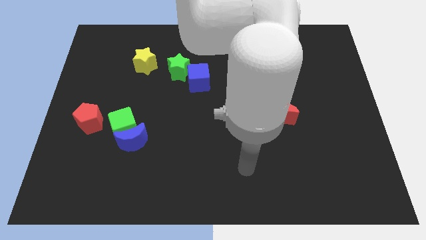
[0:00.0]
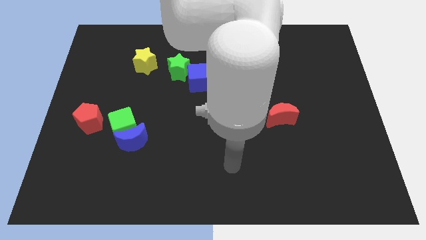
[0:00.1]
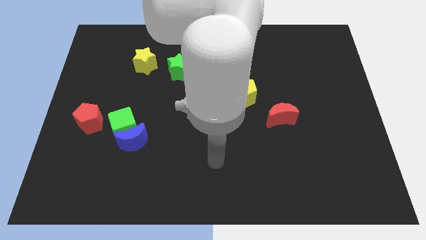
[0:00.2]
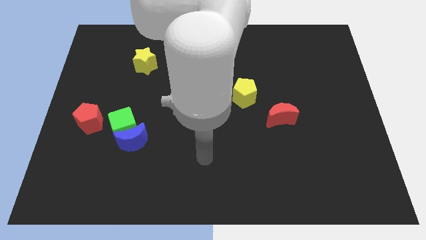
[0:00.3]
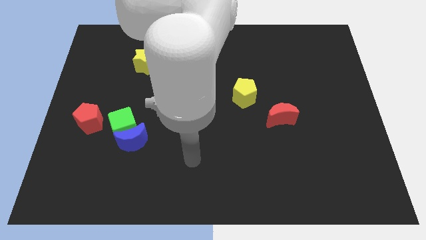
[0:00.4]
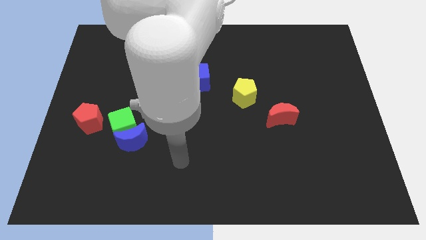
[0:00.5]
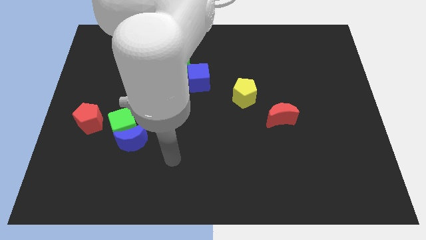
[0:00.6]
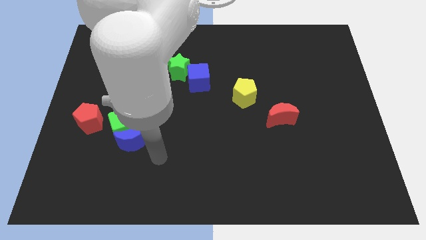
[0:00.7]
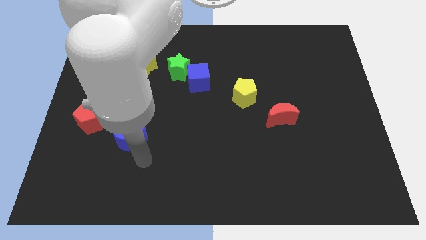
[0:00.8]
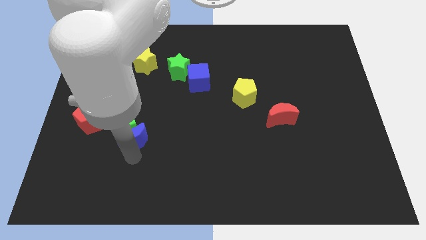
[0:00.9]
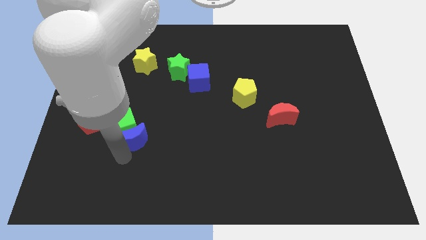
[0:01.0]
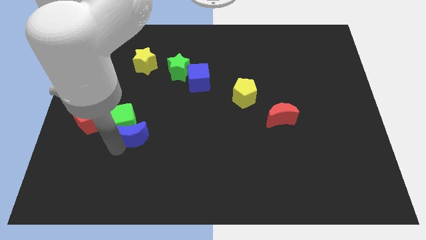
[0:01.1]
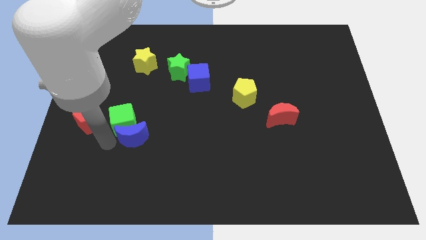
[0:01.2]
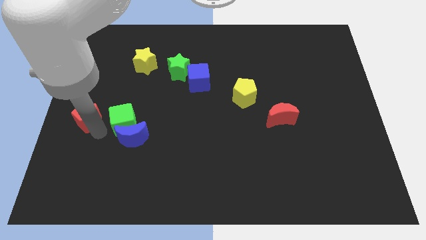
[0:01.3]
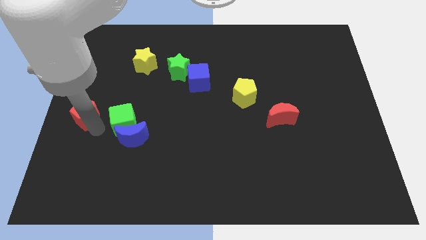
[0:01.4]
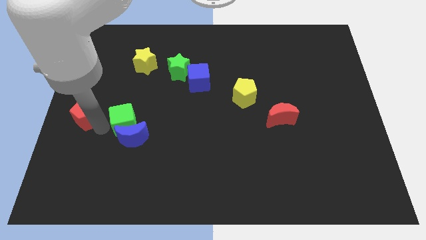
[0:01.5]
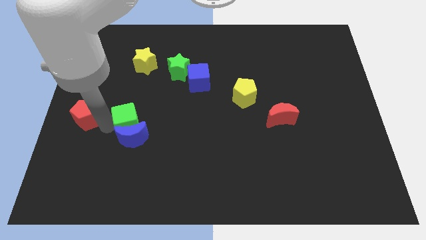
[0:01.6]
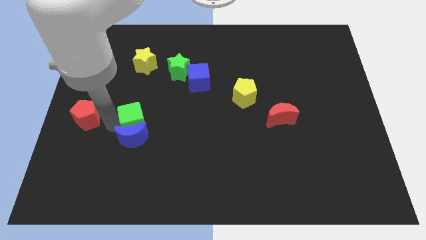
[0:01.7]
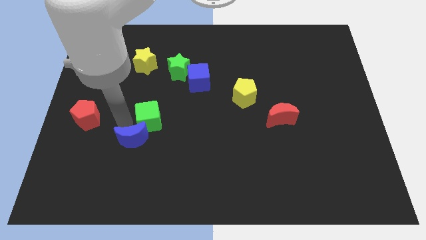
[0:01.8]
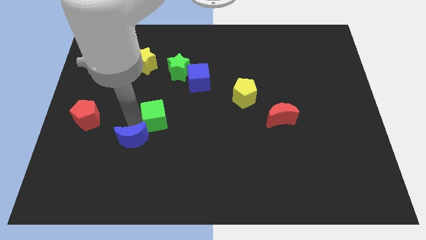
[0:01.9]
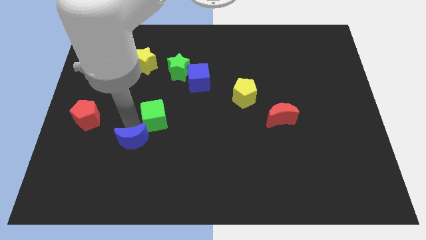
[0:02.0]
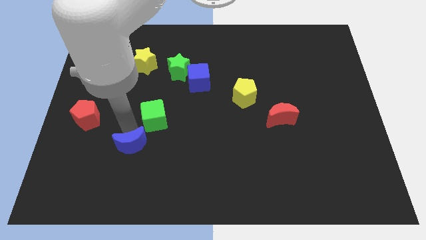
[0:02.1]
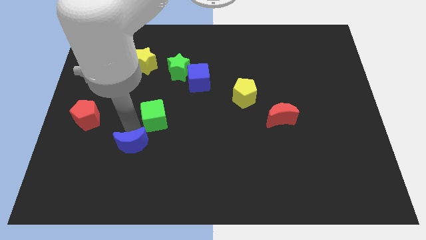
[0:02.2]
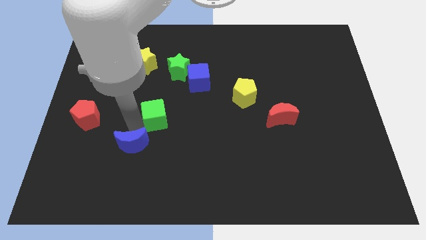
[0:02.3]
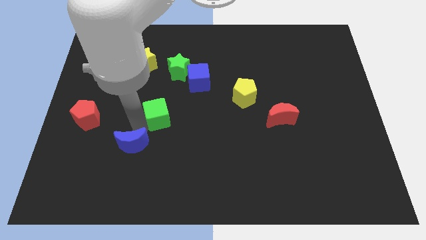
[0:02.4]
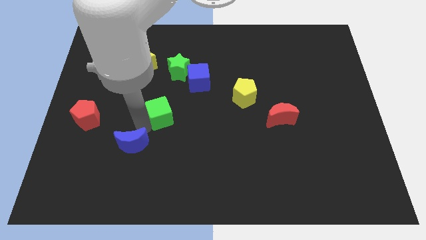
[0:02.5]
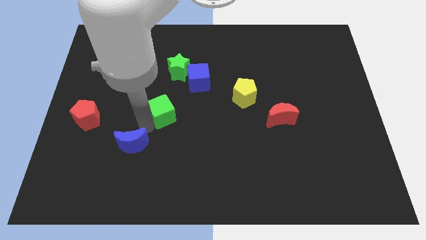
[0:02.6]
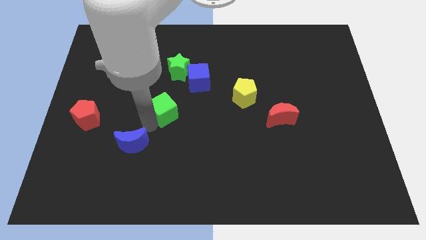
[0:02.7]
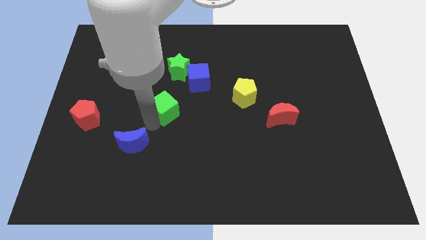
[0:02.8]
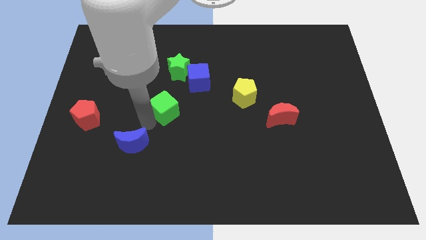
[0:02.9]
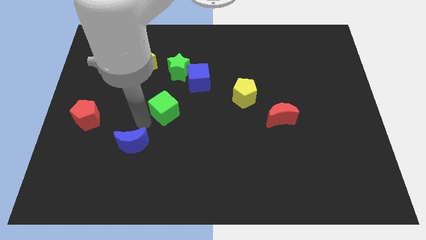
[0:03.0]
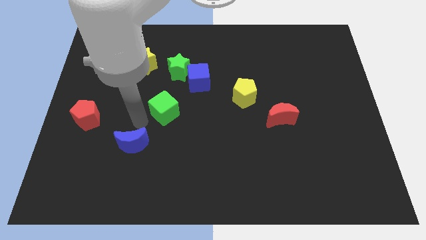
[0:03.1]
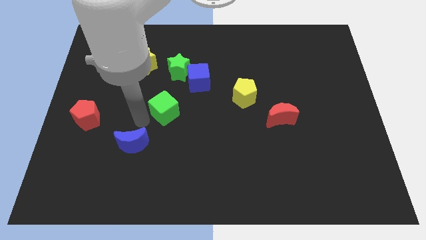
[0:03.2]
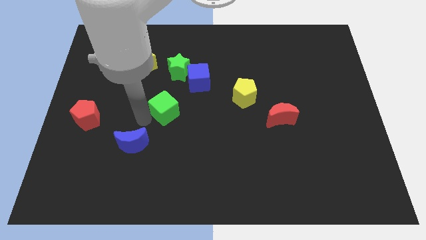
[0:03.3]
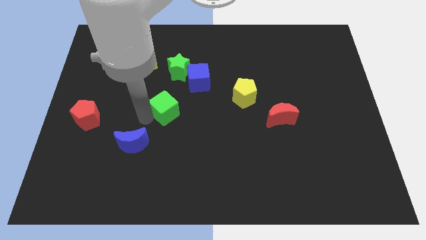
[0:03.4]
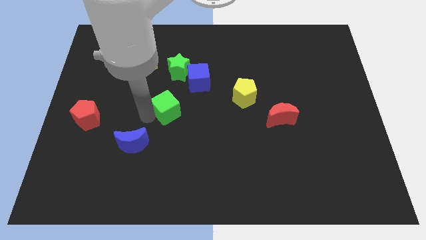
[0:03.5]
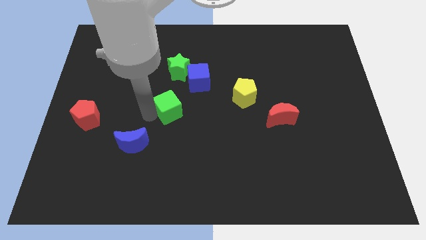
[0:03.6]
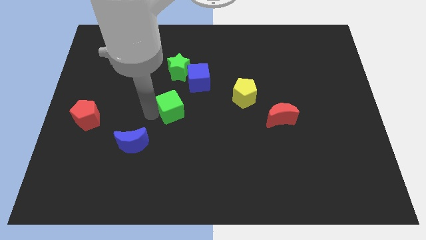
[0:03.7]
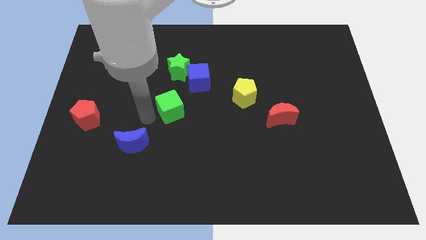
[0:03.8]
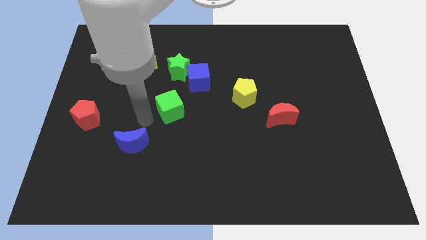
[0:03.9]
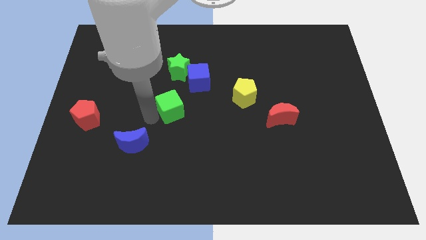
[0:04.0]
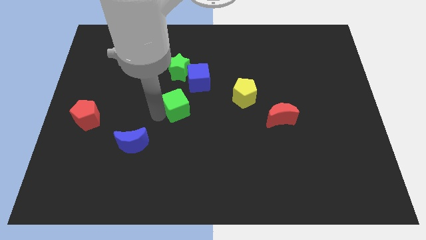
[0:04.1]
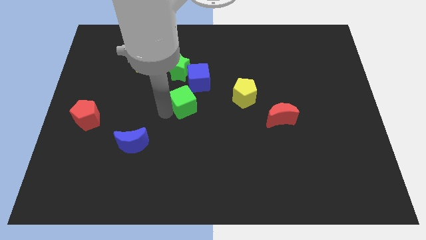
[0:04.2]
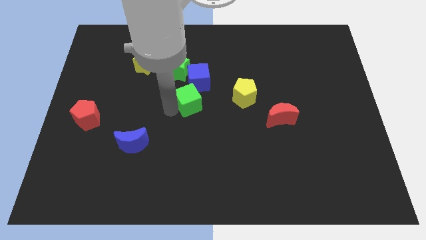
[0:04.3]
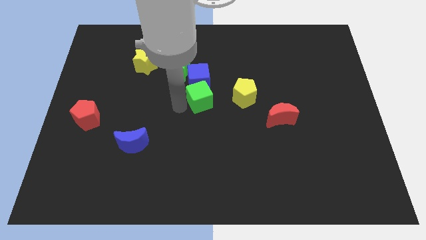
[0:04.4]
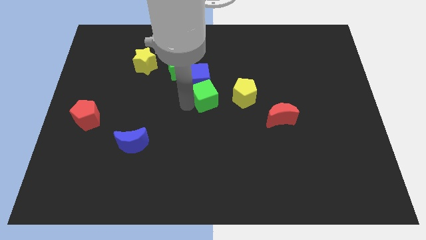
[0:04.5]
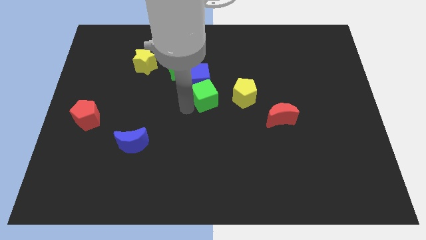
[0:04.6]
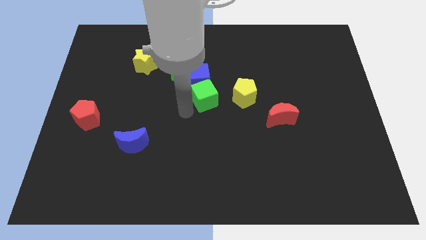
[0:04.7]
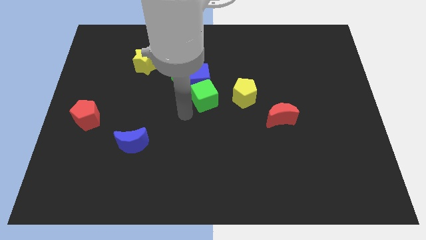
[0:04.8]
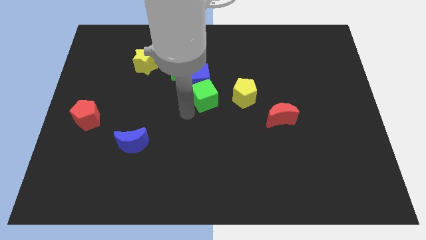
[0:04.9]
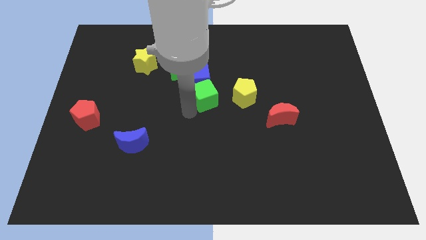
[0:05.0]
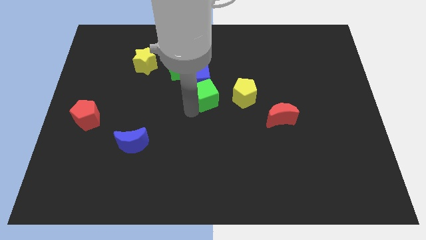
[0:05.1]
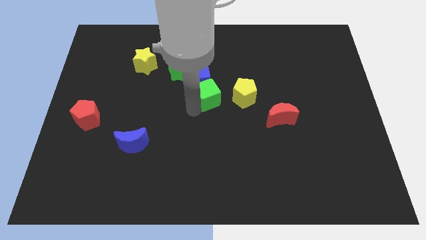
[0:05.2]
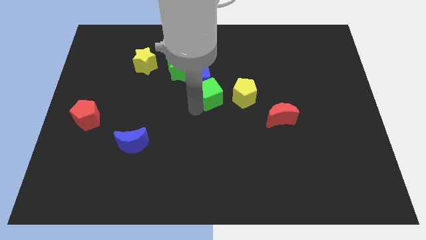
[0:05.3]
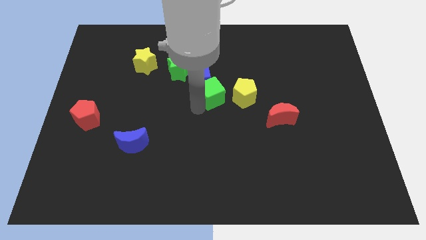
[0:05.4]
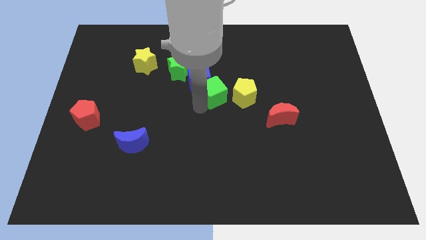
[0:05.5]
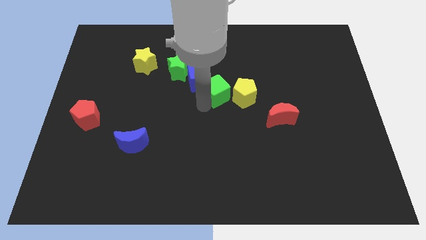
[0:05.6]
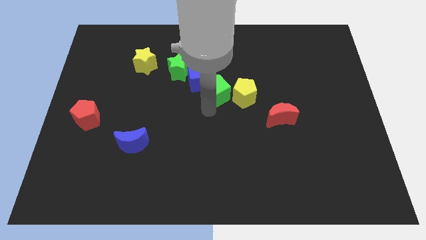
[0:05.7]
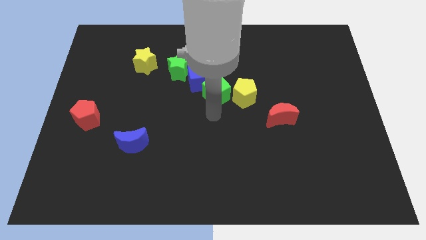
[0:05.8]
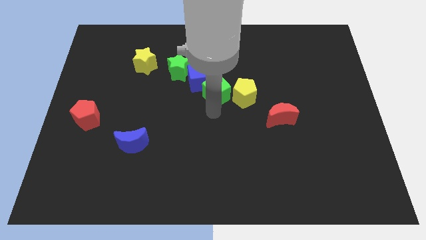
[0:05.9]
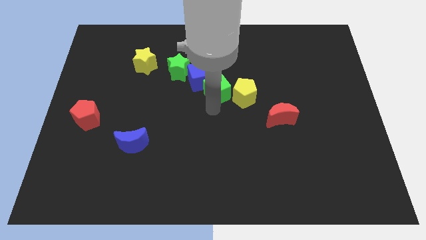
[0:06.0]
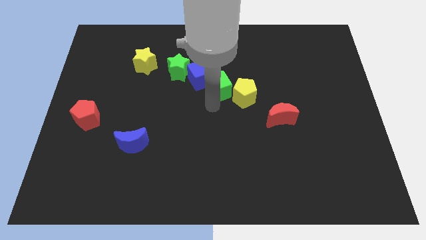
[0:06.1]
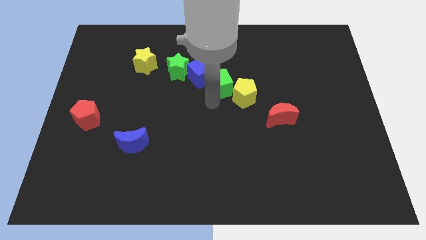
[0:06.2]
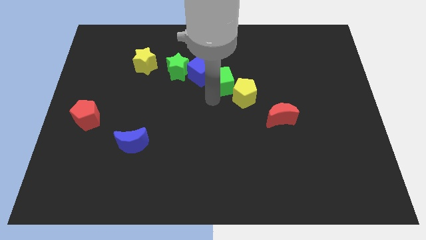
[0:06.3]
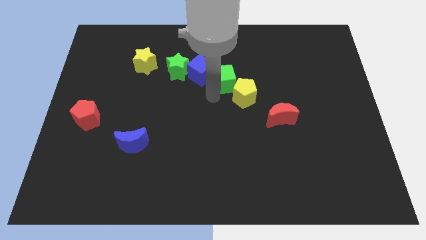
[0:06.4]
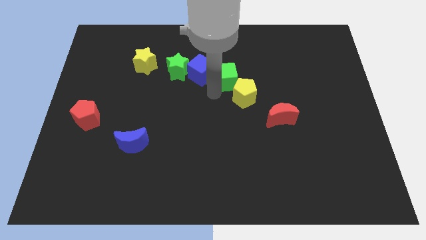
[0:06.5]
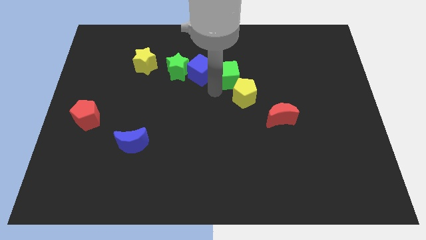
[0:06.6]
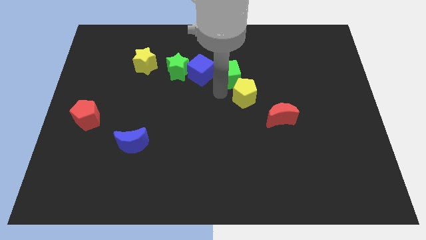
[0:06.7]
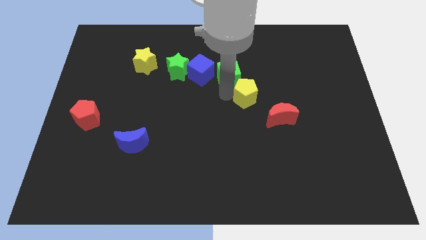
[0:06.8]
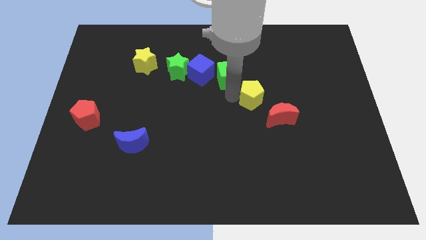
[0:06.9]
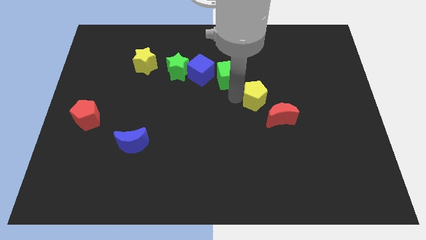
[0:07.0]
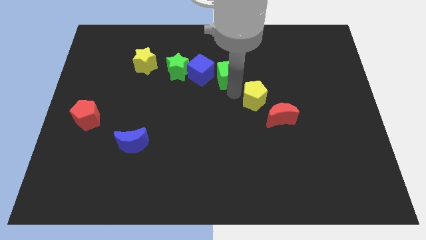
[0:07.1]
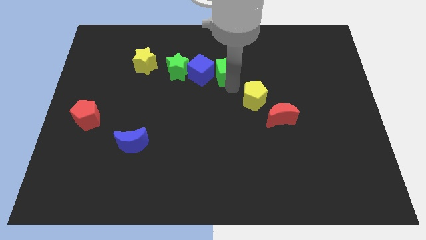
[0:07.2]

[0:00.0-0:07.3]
push the green cube to the top right of the blue cube
